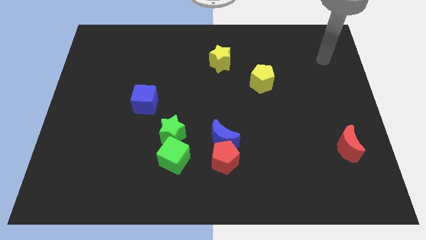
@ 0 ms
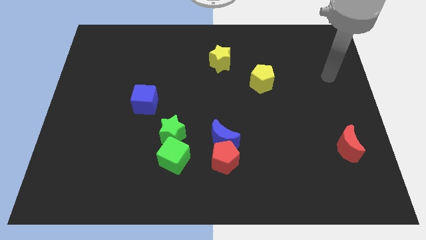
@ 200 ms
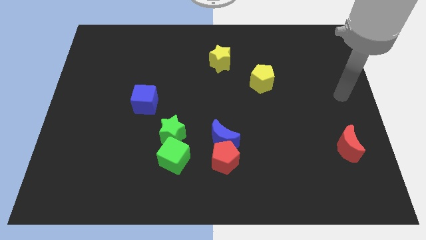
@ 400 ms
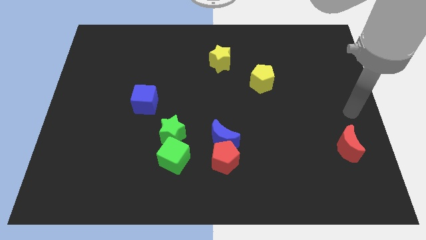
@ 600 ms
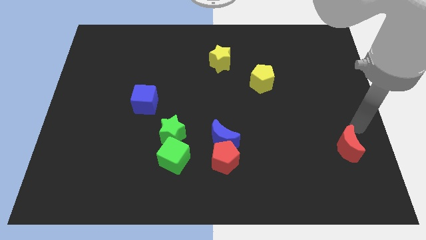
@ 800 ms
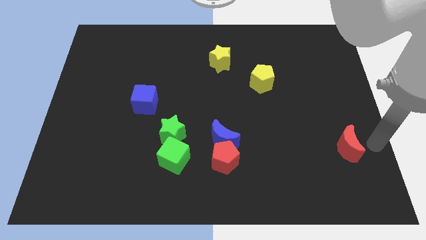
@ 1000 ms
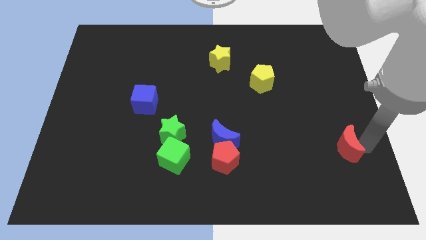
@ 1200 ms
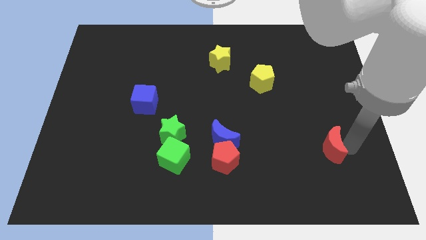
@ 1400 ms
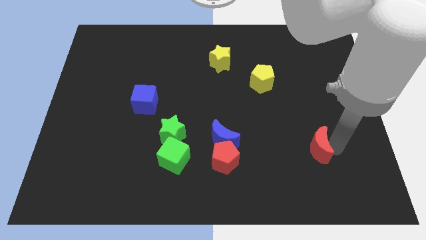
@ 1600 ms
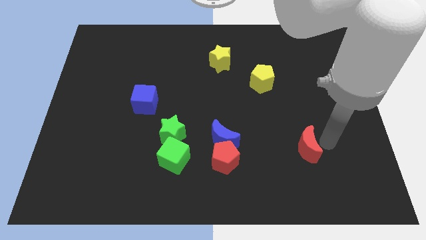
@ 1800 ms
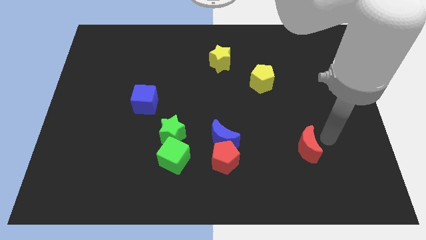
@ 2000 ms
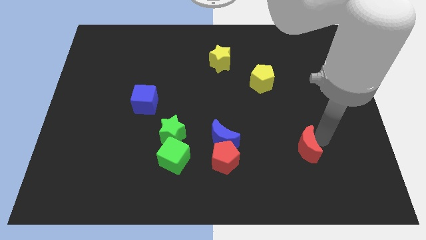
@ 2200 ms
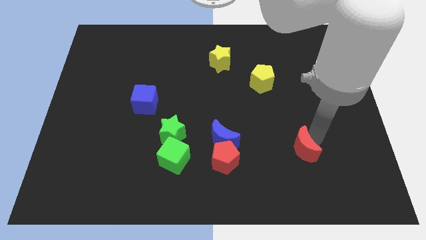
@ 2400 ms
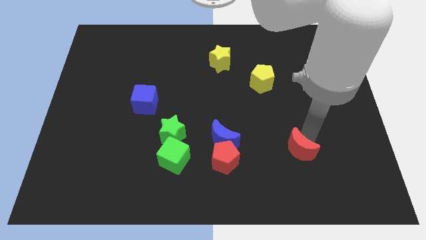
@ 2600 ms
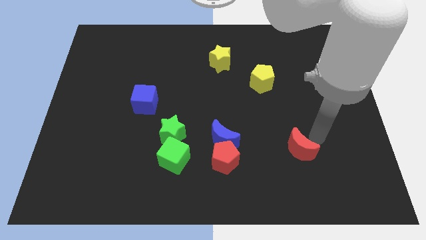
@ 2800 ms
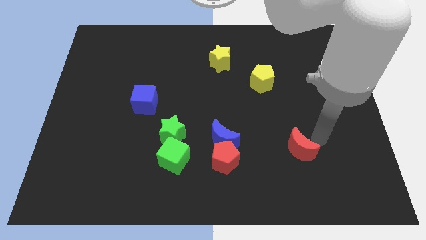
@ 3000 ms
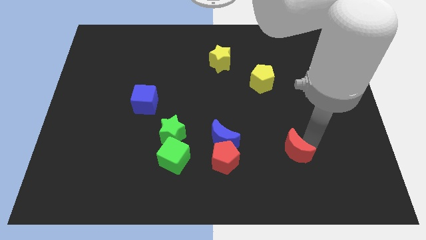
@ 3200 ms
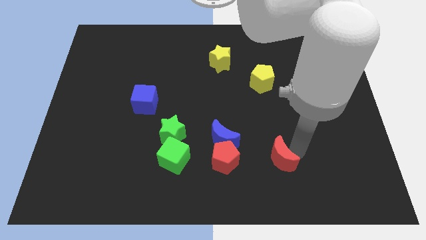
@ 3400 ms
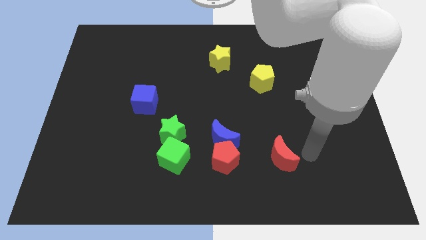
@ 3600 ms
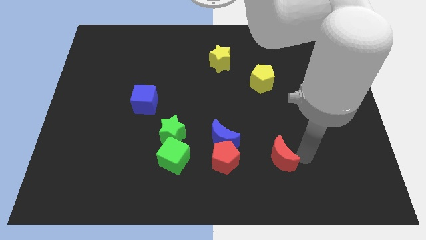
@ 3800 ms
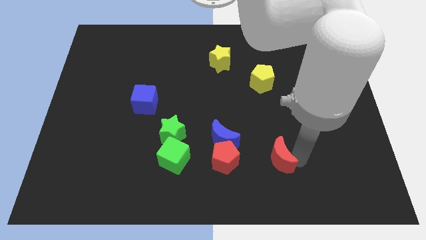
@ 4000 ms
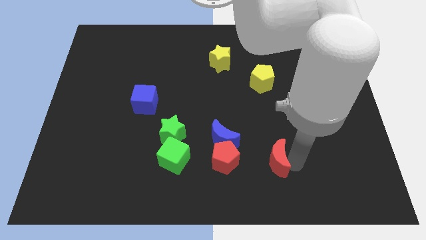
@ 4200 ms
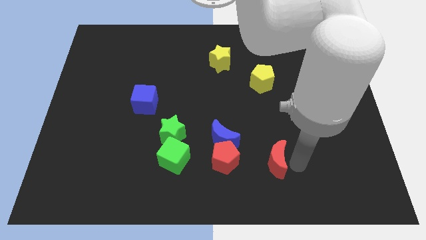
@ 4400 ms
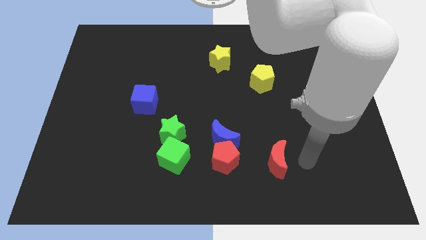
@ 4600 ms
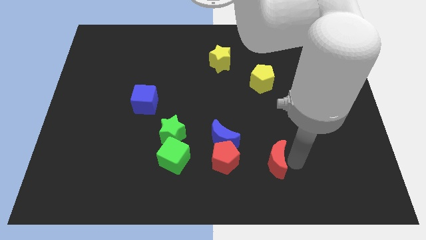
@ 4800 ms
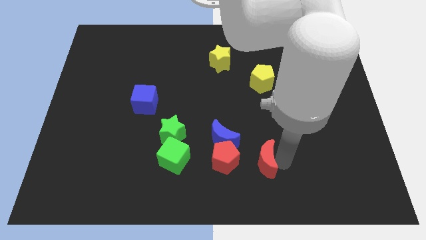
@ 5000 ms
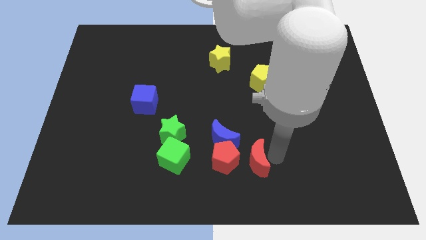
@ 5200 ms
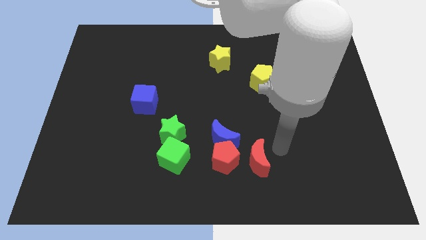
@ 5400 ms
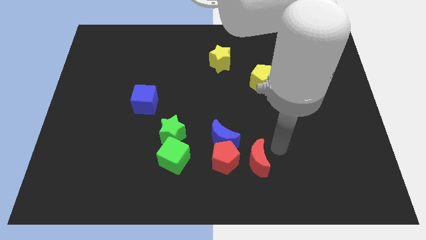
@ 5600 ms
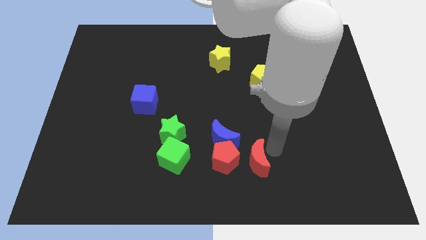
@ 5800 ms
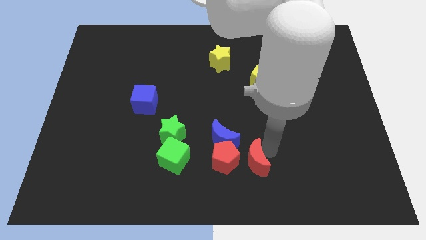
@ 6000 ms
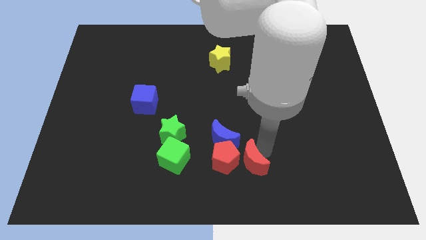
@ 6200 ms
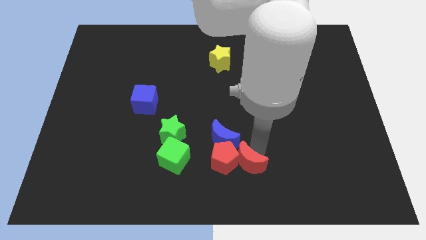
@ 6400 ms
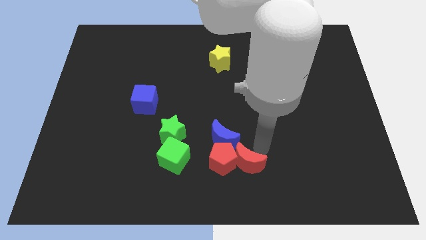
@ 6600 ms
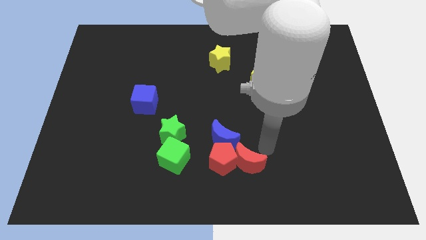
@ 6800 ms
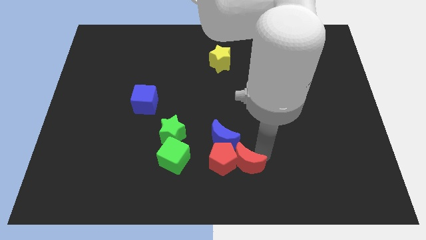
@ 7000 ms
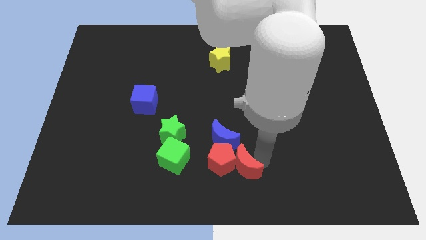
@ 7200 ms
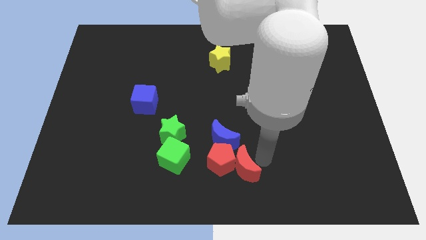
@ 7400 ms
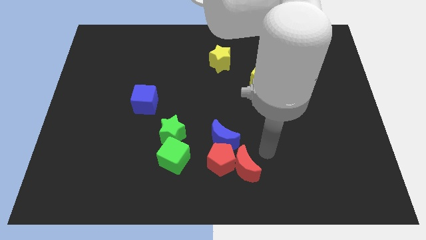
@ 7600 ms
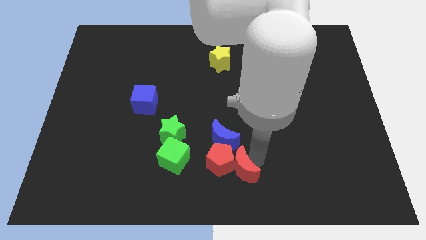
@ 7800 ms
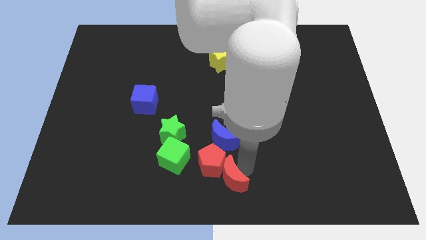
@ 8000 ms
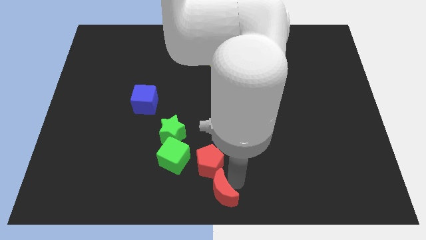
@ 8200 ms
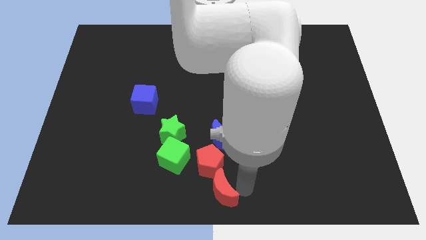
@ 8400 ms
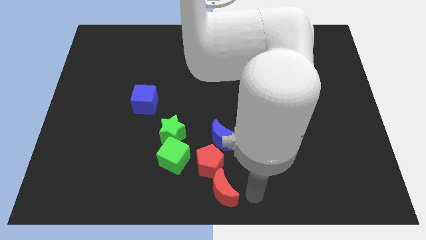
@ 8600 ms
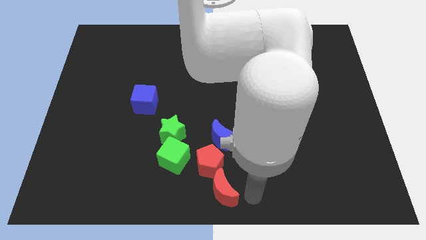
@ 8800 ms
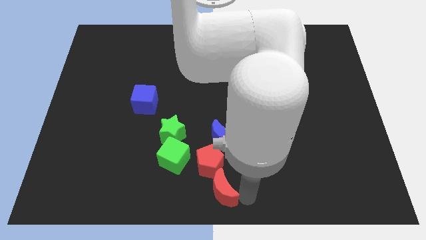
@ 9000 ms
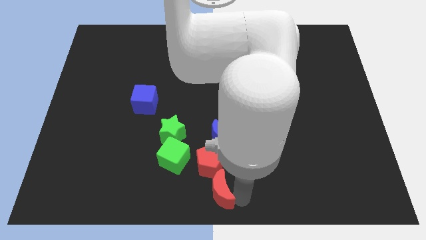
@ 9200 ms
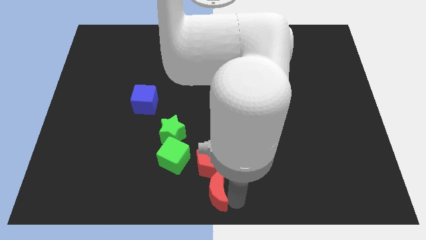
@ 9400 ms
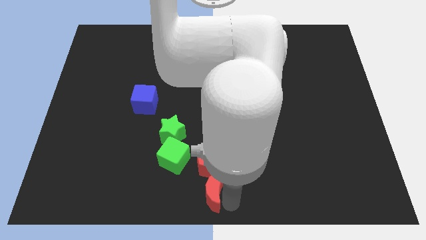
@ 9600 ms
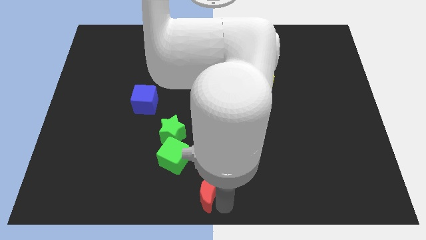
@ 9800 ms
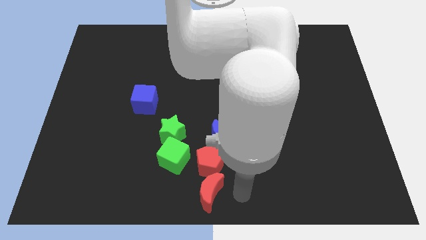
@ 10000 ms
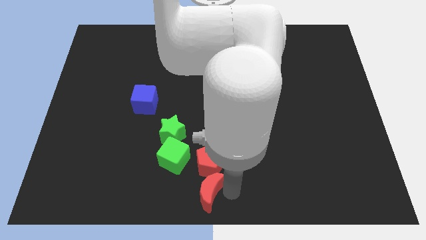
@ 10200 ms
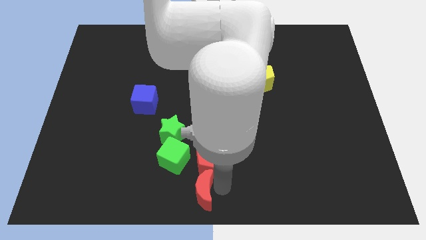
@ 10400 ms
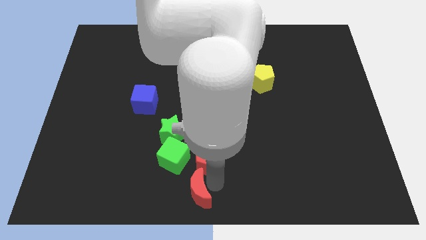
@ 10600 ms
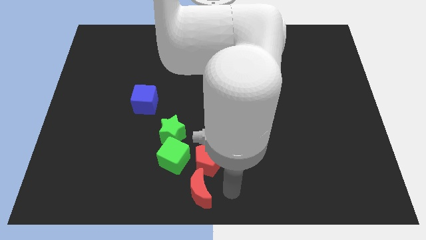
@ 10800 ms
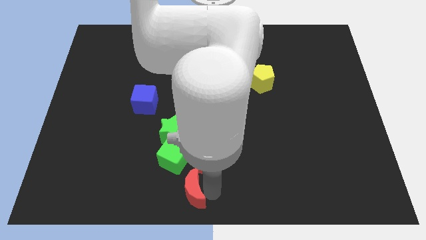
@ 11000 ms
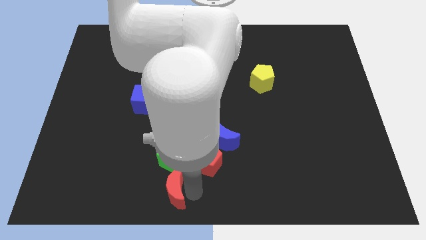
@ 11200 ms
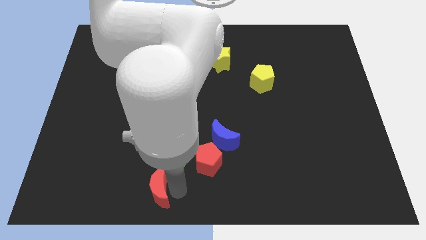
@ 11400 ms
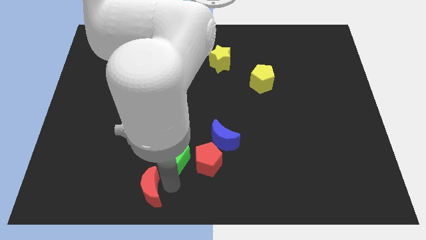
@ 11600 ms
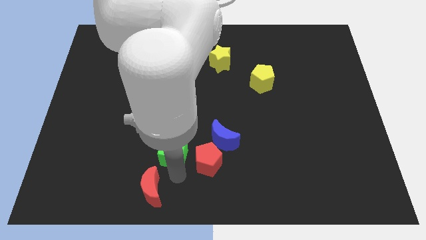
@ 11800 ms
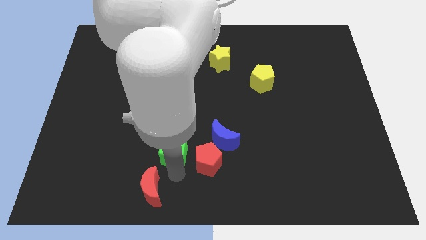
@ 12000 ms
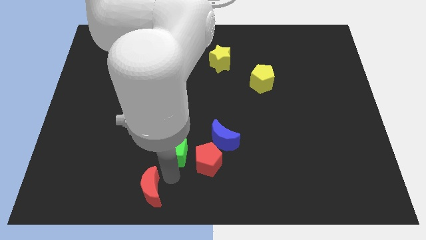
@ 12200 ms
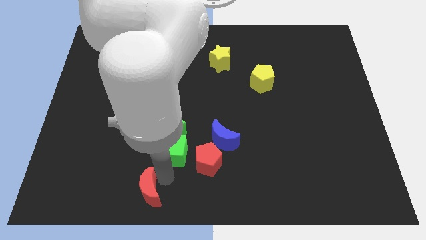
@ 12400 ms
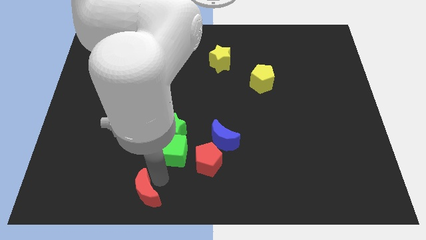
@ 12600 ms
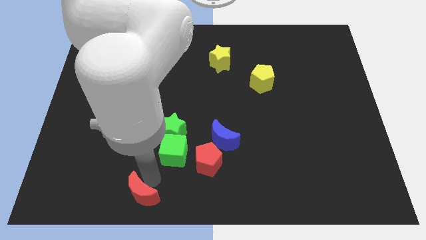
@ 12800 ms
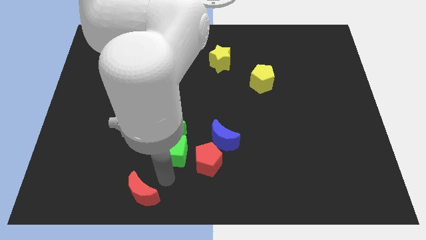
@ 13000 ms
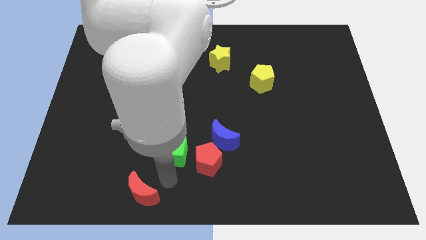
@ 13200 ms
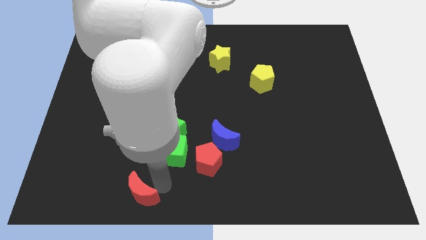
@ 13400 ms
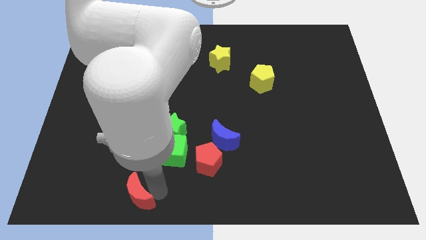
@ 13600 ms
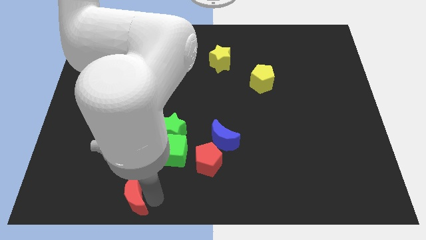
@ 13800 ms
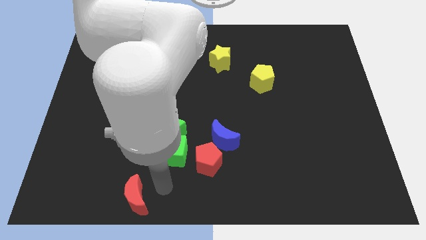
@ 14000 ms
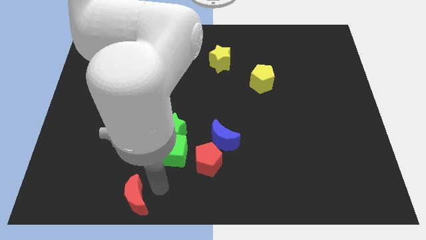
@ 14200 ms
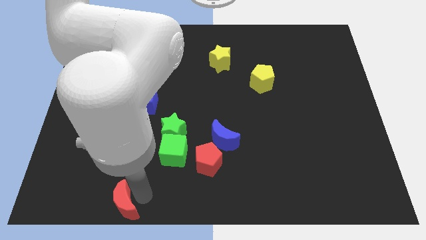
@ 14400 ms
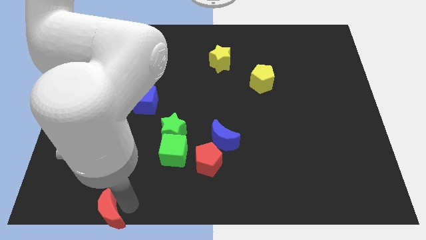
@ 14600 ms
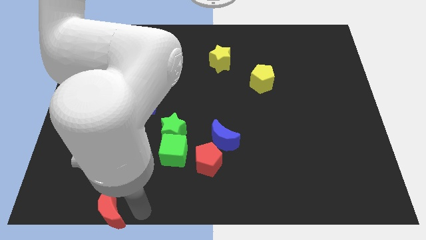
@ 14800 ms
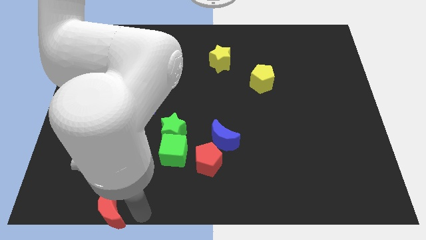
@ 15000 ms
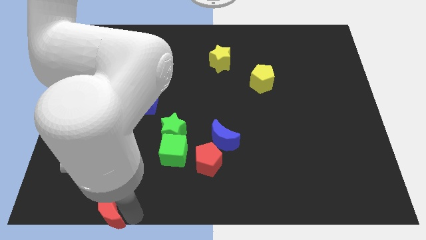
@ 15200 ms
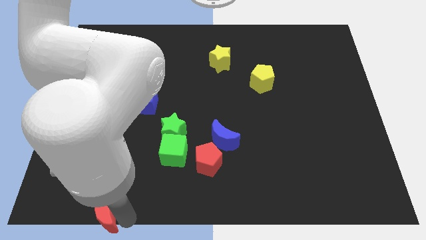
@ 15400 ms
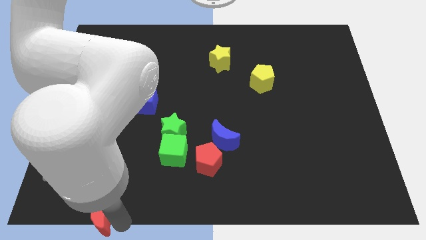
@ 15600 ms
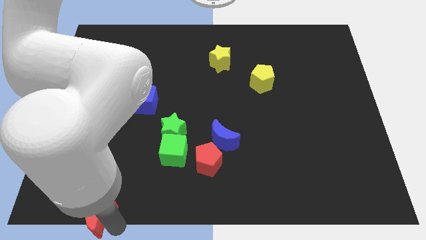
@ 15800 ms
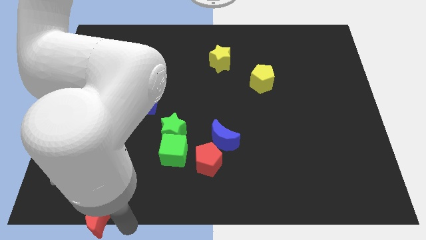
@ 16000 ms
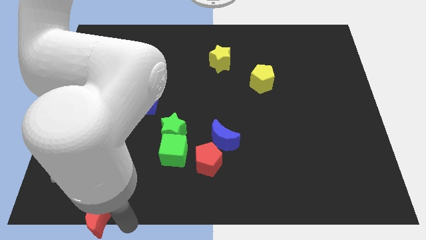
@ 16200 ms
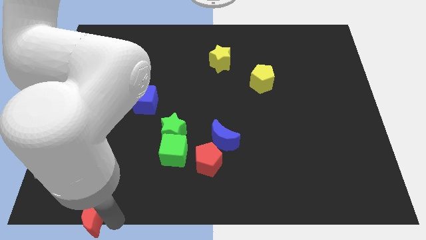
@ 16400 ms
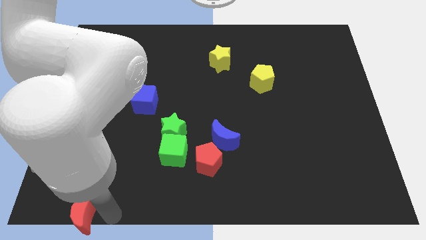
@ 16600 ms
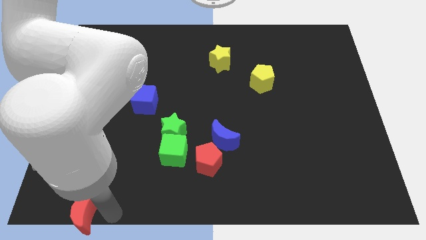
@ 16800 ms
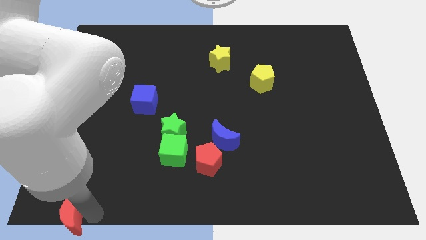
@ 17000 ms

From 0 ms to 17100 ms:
put the red moon to the bottom left
